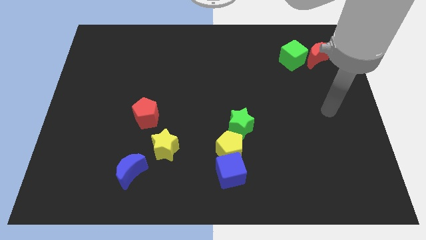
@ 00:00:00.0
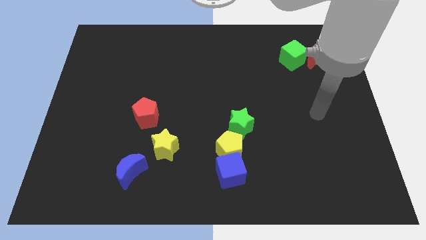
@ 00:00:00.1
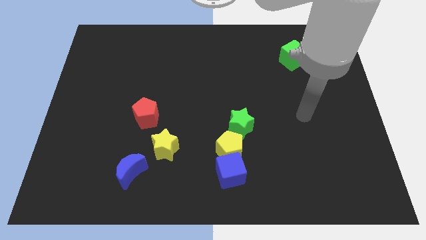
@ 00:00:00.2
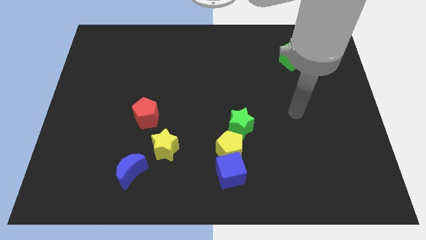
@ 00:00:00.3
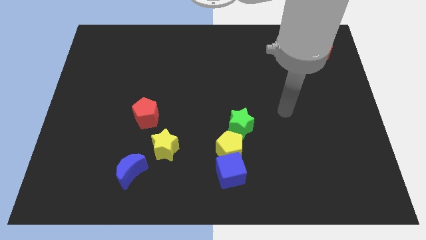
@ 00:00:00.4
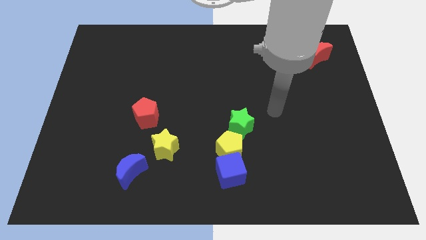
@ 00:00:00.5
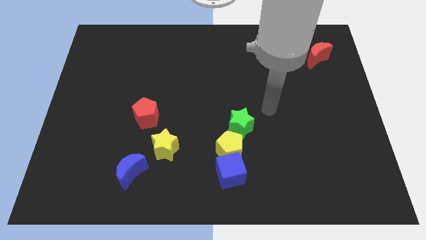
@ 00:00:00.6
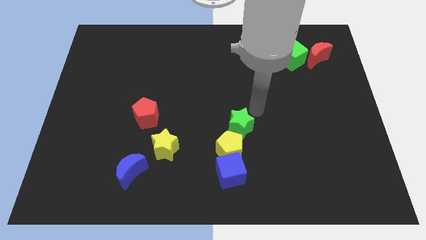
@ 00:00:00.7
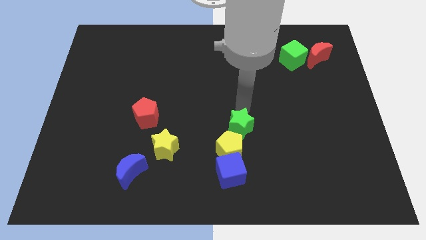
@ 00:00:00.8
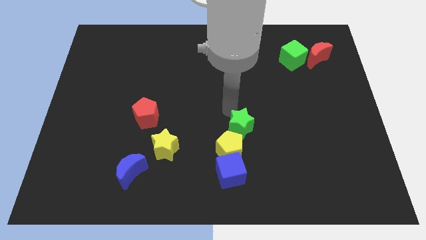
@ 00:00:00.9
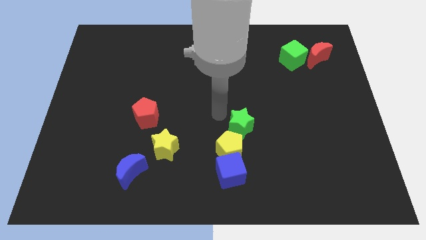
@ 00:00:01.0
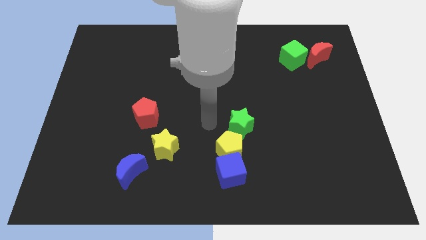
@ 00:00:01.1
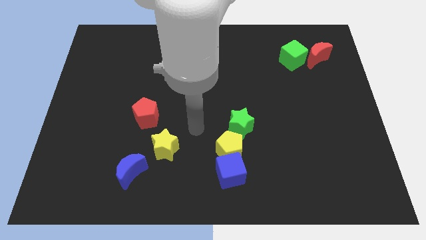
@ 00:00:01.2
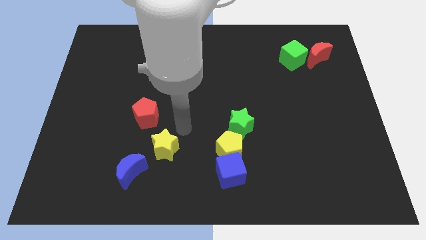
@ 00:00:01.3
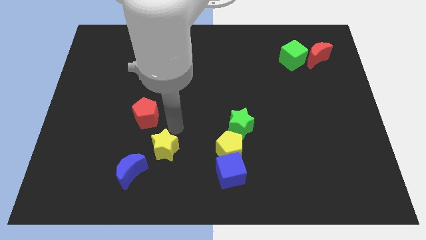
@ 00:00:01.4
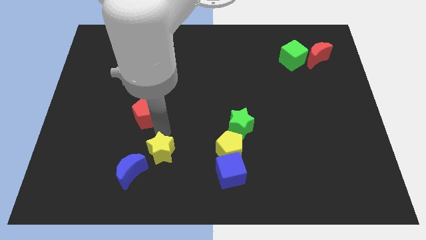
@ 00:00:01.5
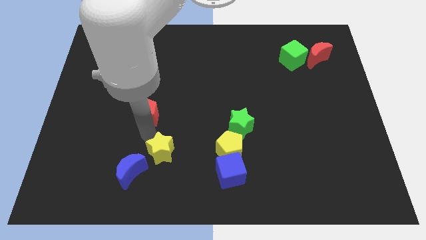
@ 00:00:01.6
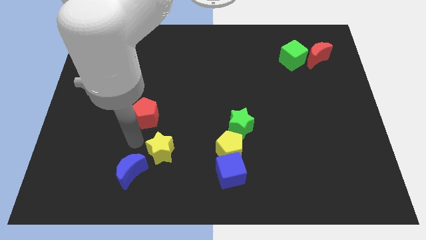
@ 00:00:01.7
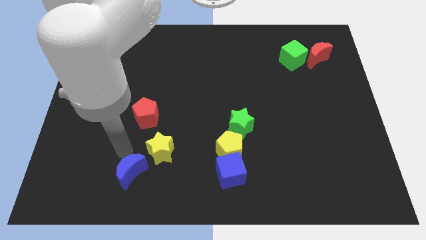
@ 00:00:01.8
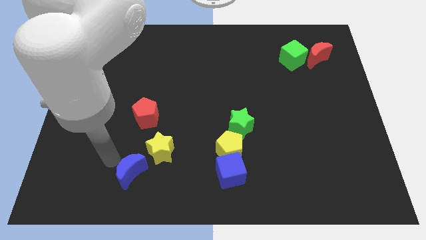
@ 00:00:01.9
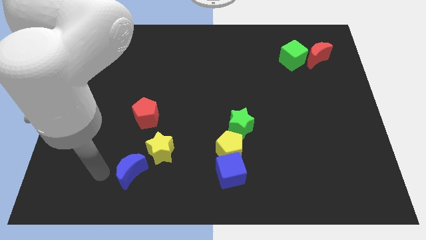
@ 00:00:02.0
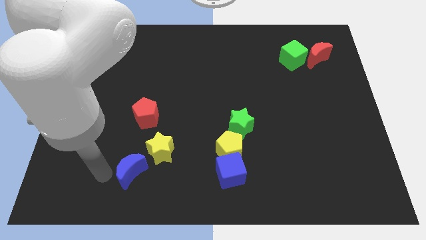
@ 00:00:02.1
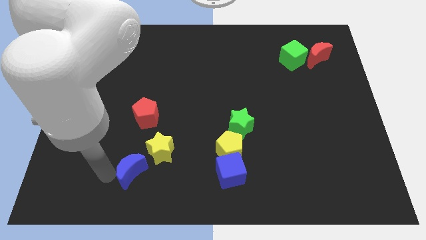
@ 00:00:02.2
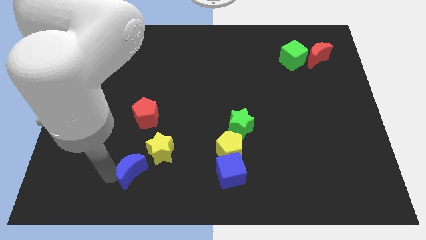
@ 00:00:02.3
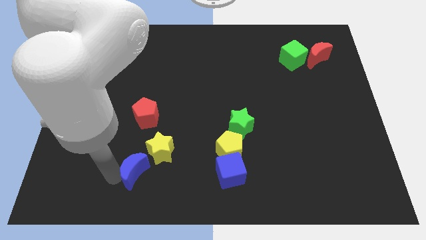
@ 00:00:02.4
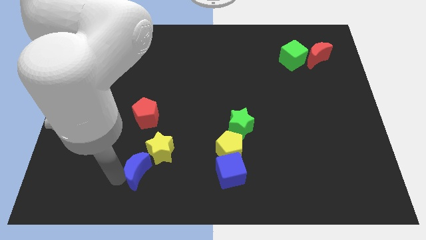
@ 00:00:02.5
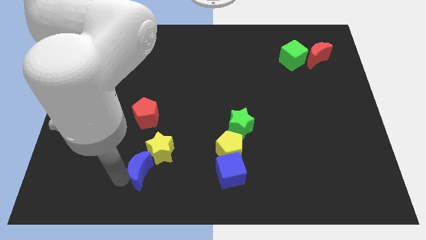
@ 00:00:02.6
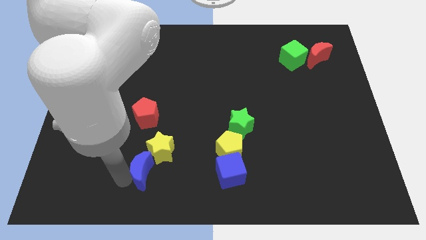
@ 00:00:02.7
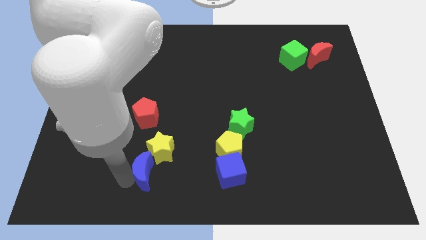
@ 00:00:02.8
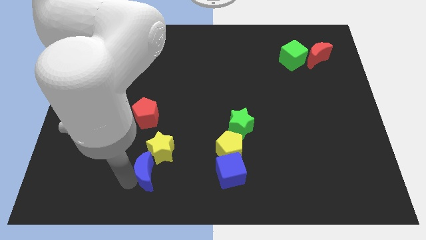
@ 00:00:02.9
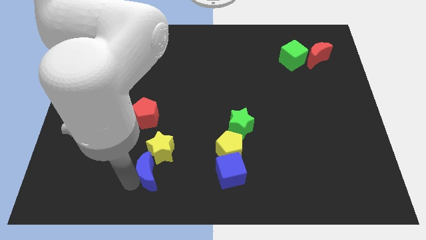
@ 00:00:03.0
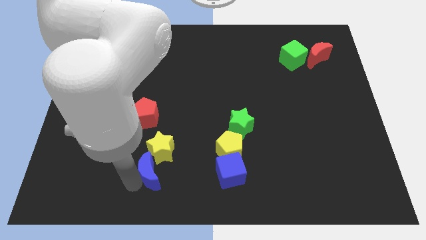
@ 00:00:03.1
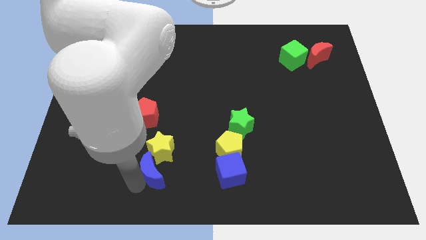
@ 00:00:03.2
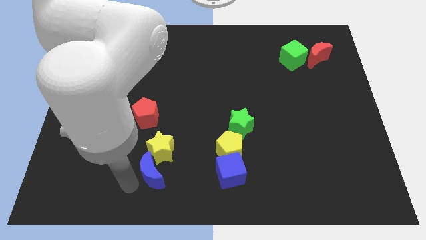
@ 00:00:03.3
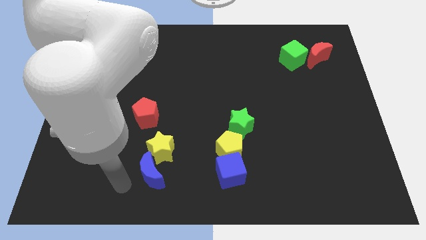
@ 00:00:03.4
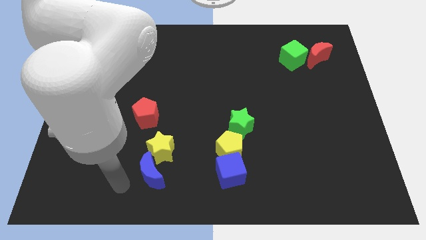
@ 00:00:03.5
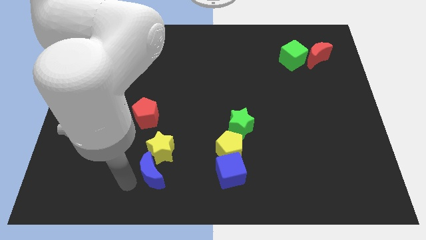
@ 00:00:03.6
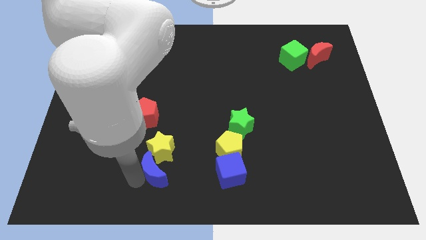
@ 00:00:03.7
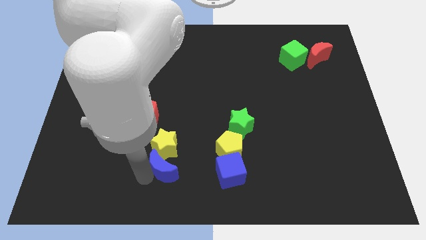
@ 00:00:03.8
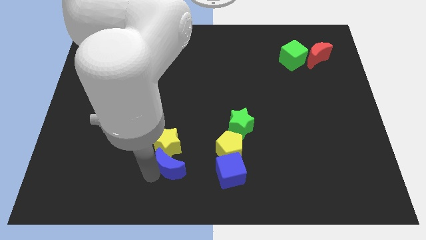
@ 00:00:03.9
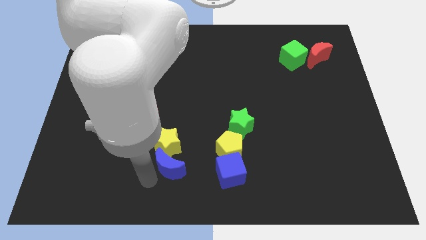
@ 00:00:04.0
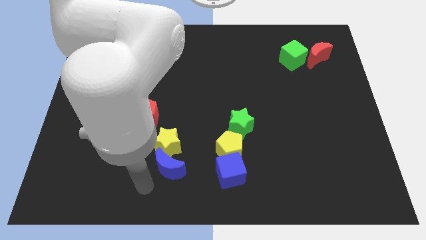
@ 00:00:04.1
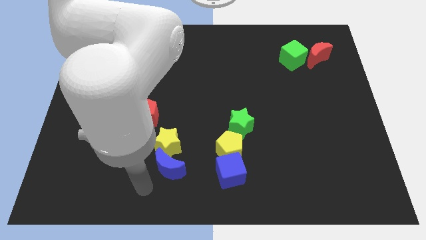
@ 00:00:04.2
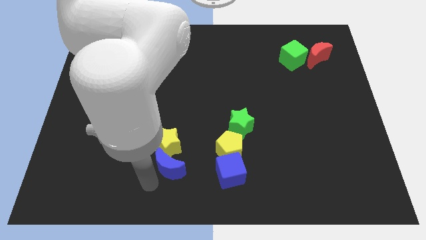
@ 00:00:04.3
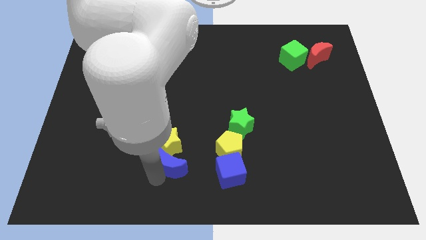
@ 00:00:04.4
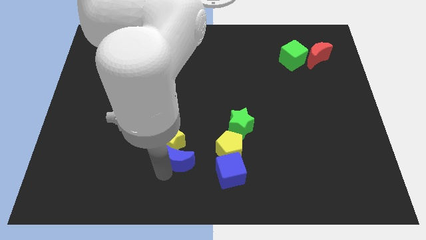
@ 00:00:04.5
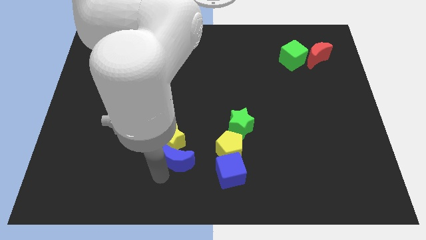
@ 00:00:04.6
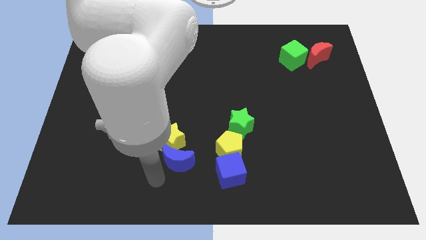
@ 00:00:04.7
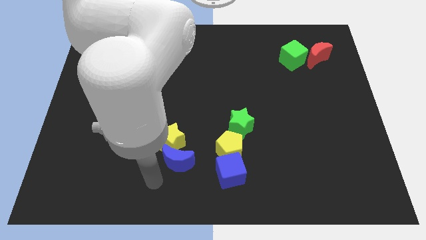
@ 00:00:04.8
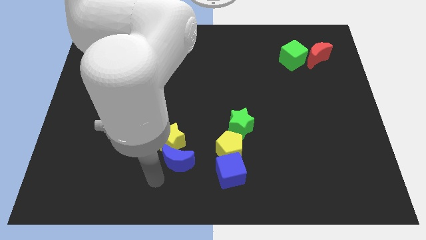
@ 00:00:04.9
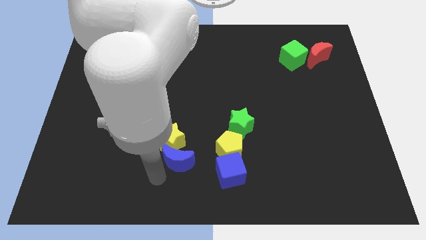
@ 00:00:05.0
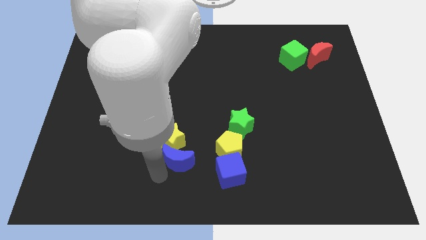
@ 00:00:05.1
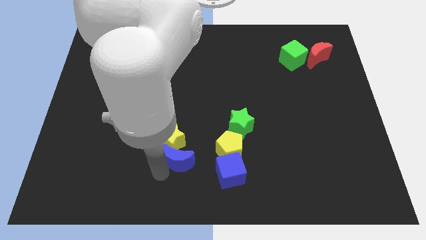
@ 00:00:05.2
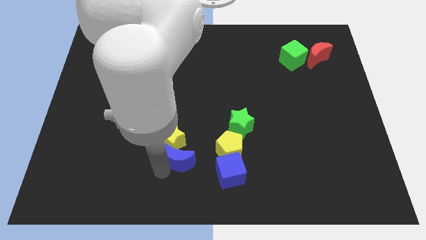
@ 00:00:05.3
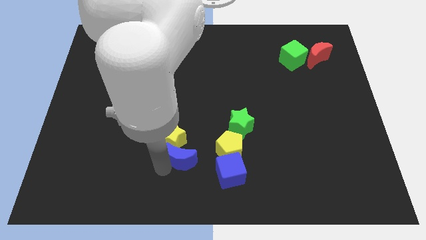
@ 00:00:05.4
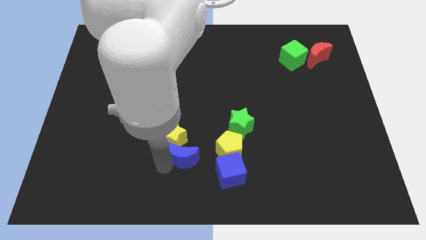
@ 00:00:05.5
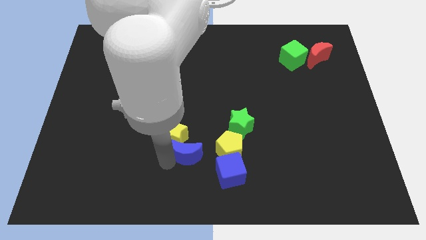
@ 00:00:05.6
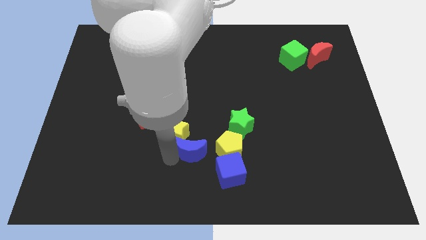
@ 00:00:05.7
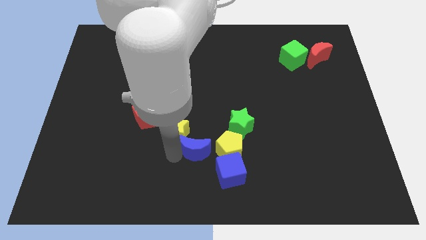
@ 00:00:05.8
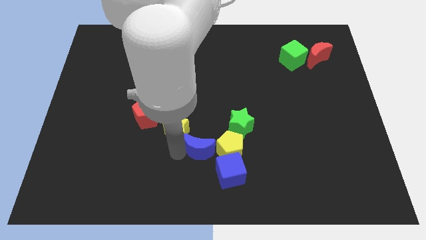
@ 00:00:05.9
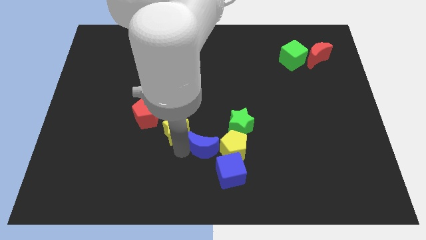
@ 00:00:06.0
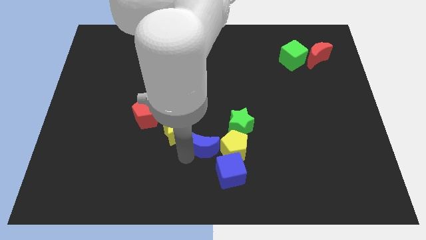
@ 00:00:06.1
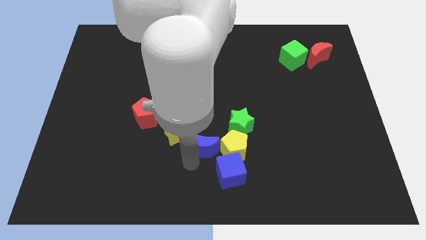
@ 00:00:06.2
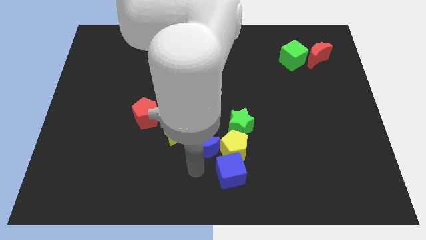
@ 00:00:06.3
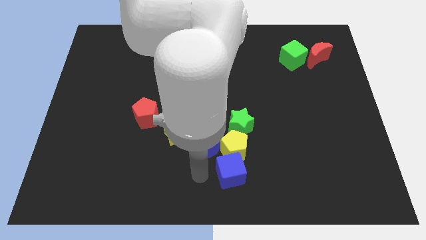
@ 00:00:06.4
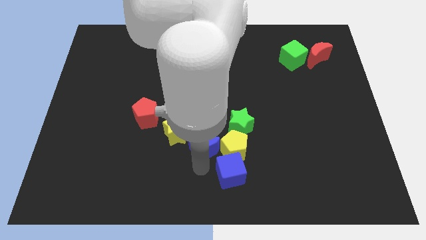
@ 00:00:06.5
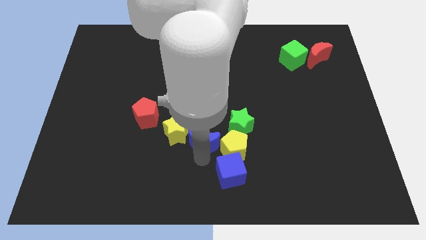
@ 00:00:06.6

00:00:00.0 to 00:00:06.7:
slide the blue moon to the center of the board
